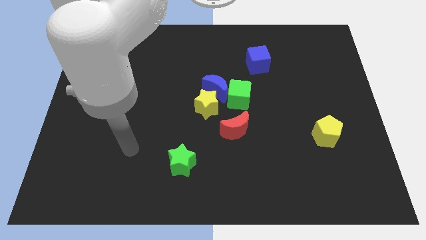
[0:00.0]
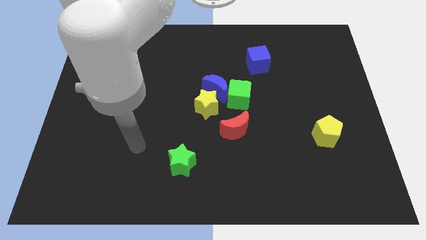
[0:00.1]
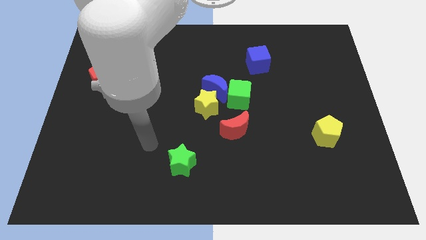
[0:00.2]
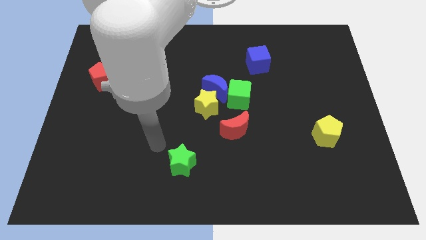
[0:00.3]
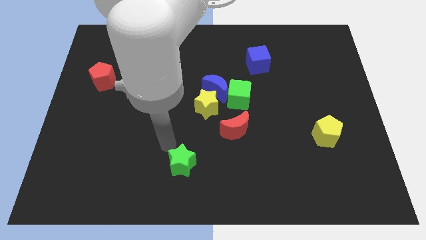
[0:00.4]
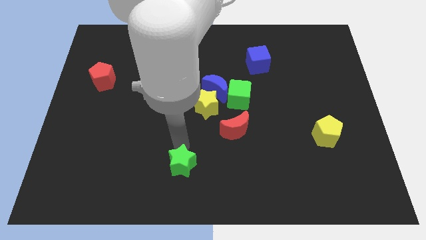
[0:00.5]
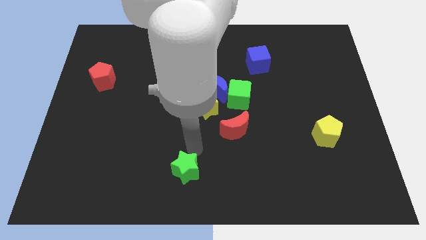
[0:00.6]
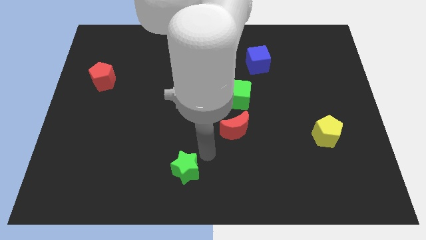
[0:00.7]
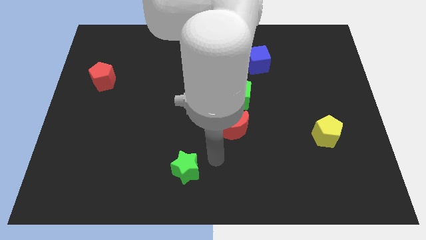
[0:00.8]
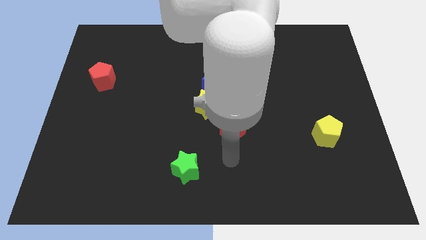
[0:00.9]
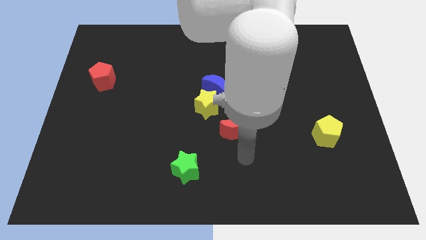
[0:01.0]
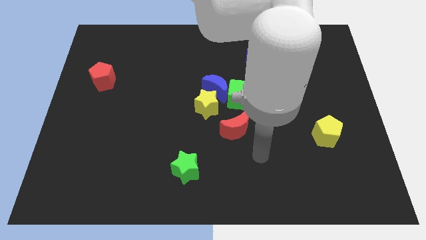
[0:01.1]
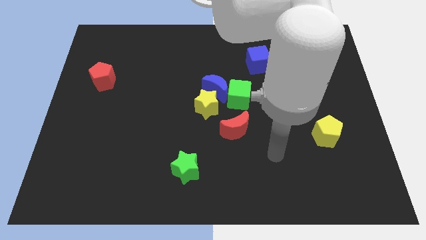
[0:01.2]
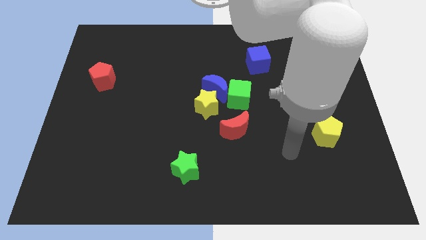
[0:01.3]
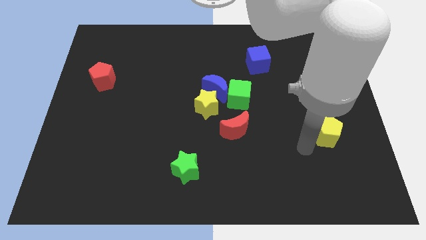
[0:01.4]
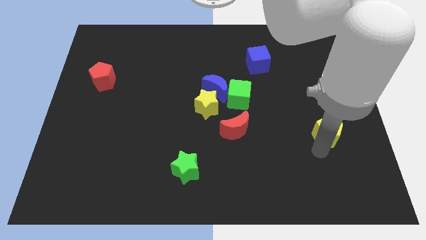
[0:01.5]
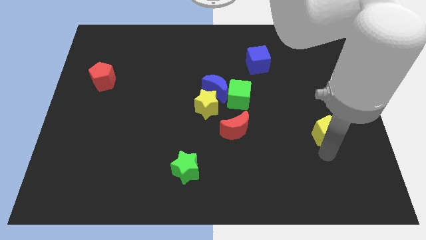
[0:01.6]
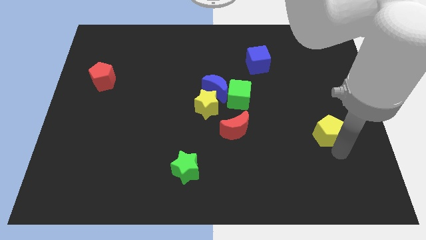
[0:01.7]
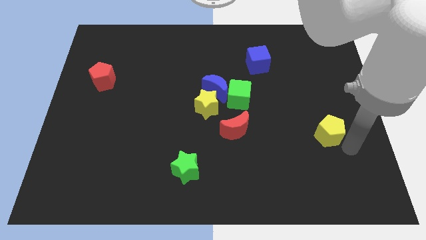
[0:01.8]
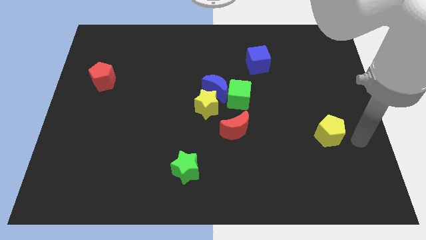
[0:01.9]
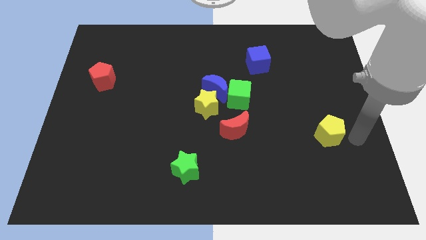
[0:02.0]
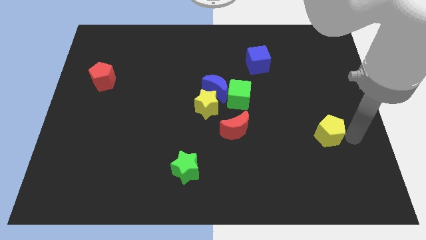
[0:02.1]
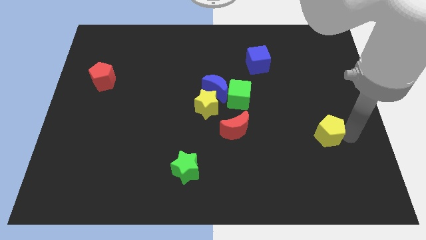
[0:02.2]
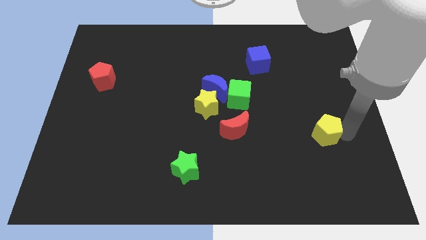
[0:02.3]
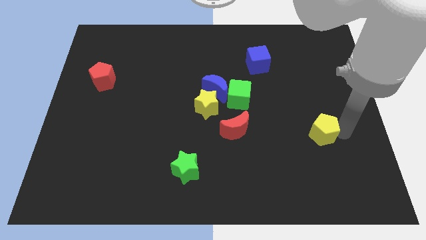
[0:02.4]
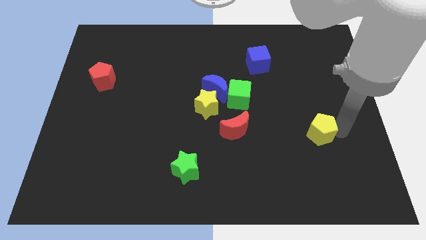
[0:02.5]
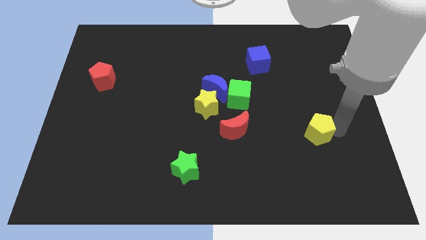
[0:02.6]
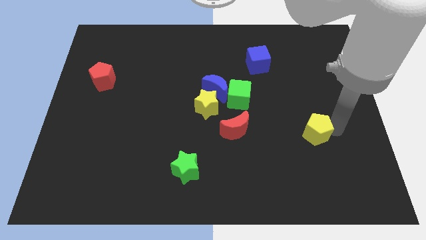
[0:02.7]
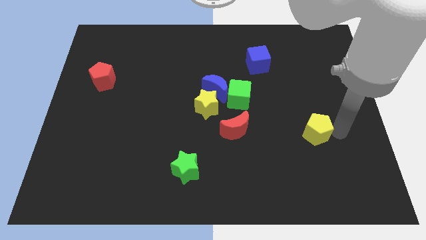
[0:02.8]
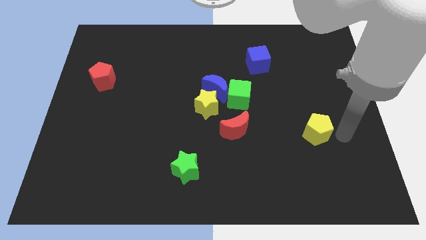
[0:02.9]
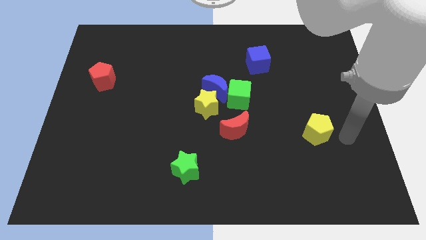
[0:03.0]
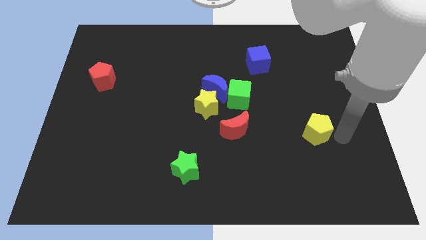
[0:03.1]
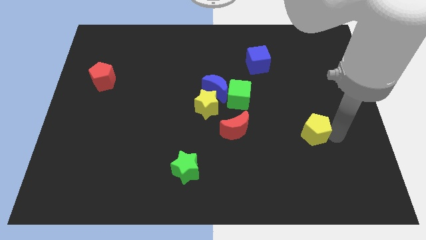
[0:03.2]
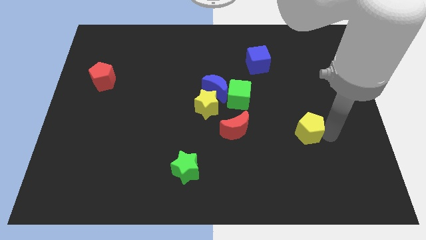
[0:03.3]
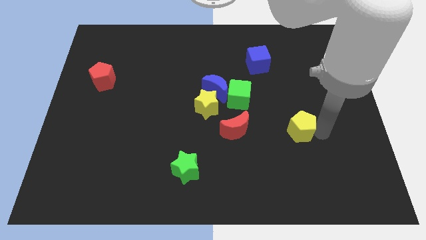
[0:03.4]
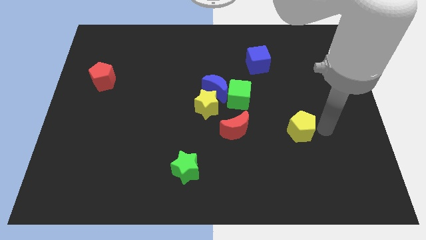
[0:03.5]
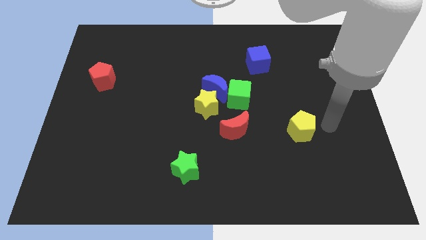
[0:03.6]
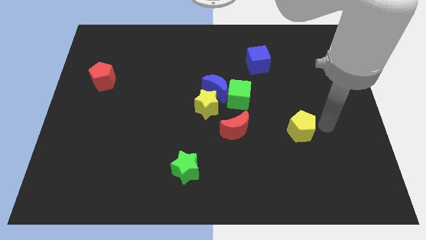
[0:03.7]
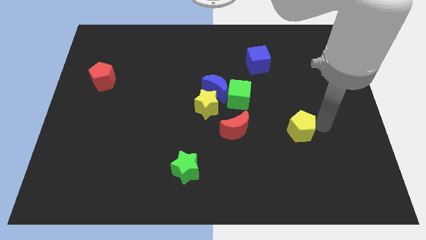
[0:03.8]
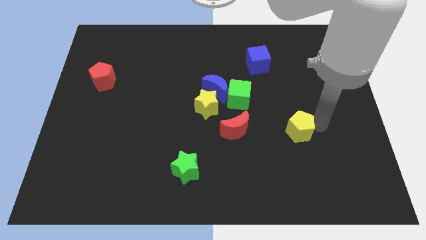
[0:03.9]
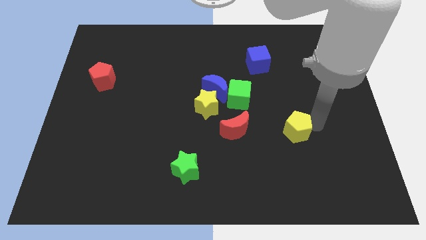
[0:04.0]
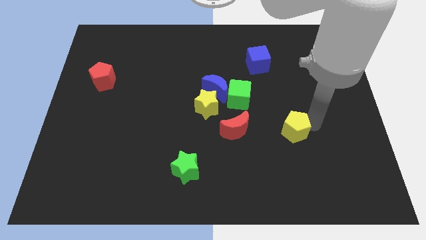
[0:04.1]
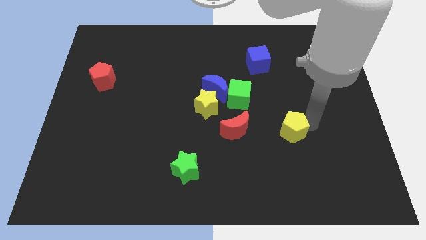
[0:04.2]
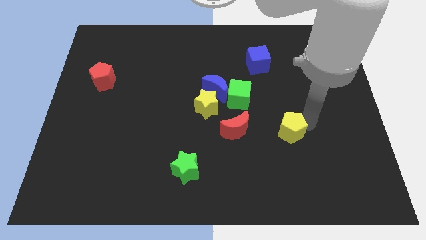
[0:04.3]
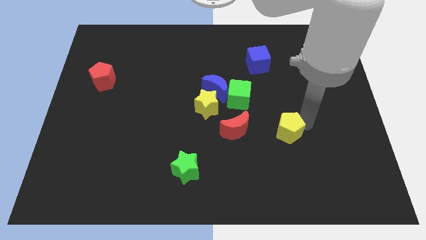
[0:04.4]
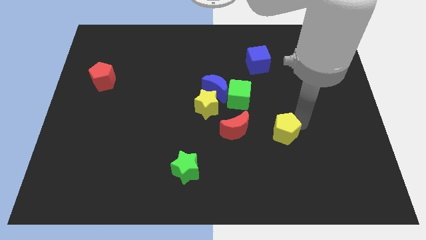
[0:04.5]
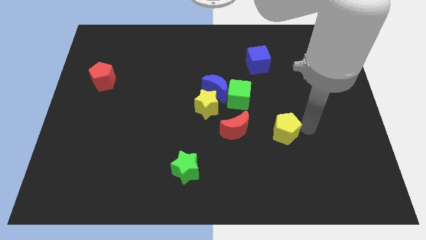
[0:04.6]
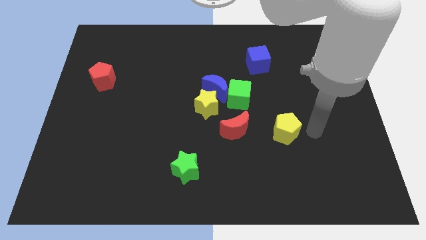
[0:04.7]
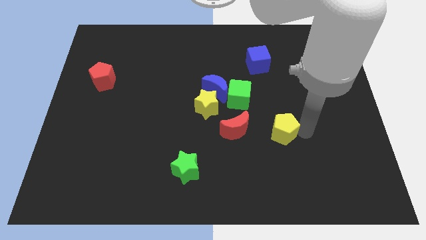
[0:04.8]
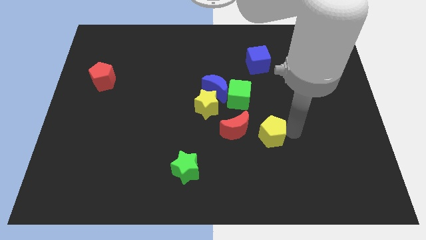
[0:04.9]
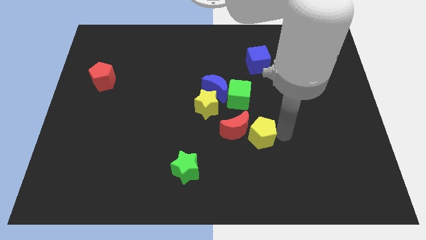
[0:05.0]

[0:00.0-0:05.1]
push the yellow pentagon towards the red moon

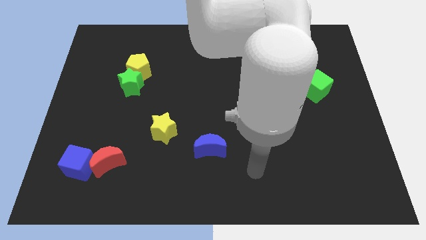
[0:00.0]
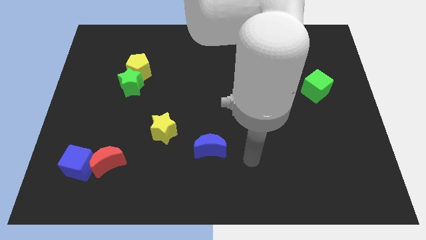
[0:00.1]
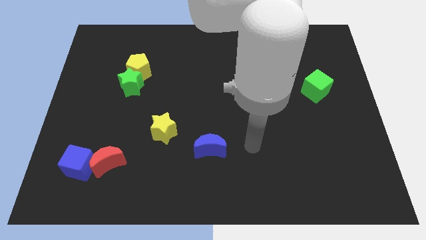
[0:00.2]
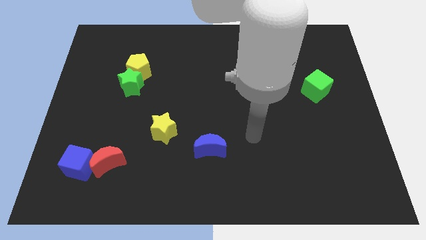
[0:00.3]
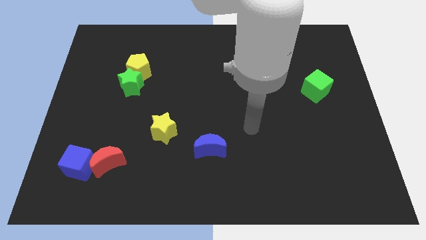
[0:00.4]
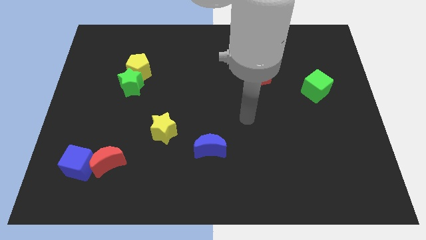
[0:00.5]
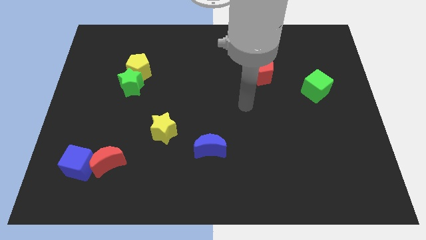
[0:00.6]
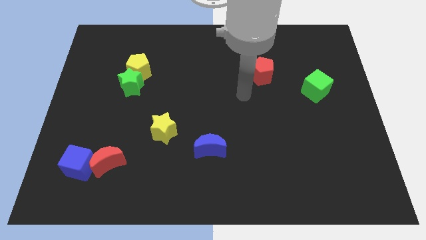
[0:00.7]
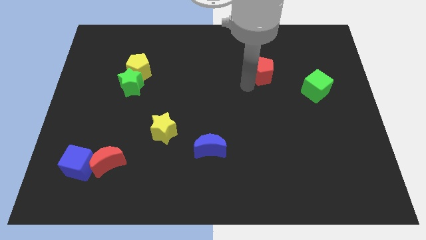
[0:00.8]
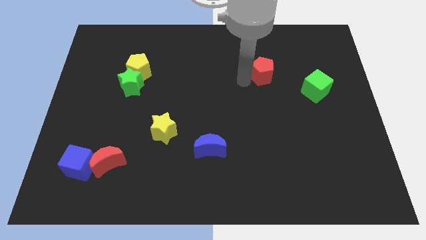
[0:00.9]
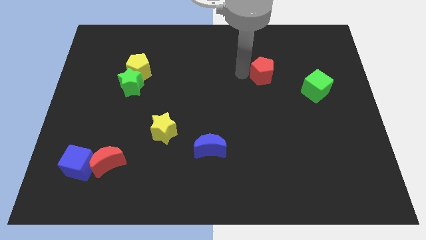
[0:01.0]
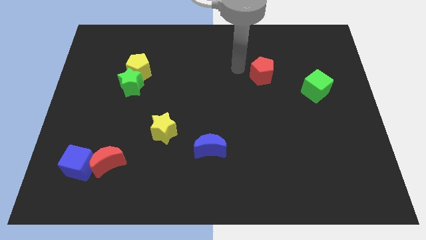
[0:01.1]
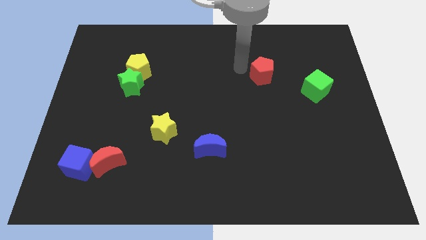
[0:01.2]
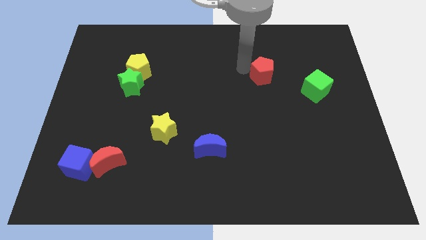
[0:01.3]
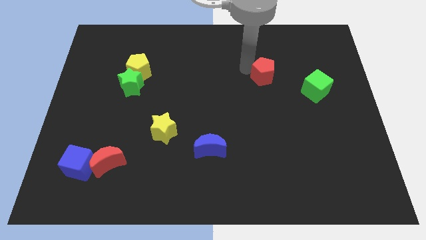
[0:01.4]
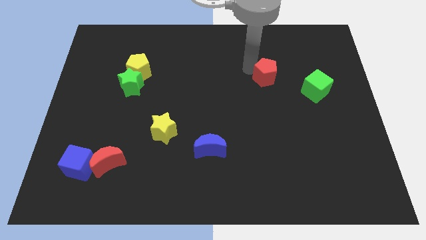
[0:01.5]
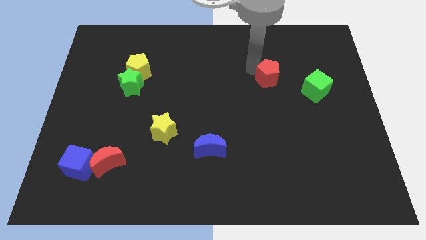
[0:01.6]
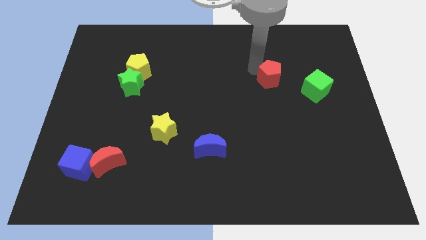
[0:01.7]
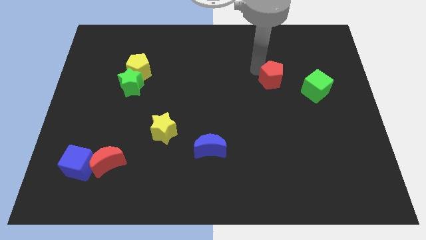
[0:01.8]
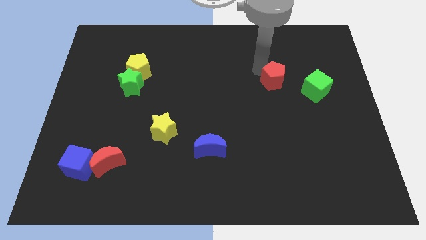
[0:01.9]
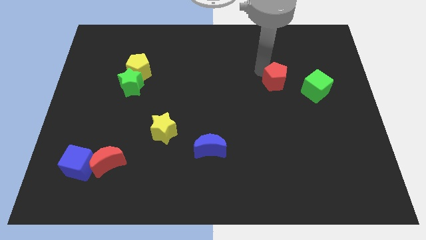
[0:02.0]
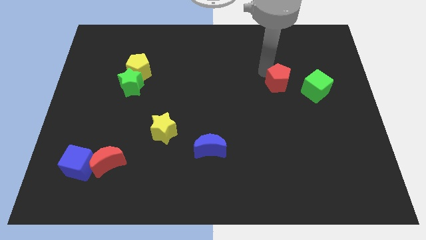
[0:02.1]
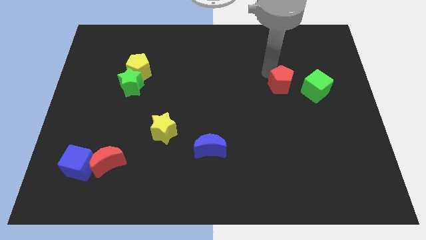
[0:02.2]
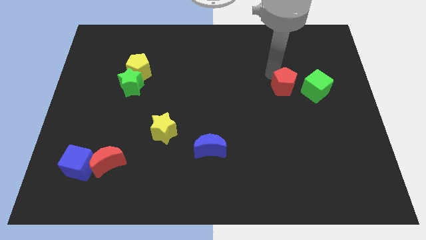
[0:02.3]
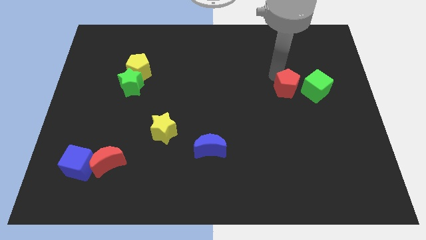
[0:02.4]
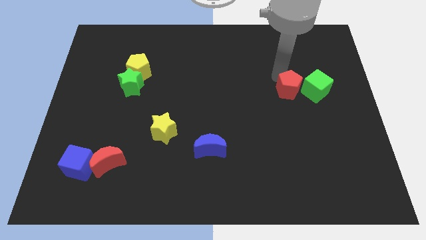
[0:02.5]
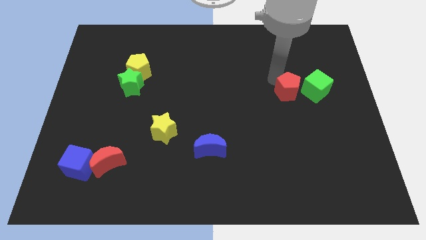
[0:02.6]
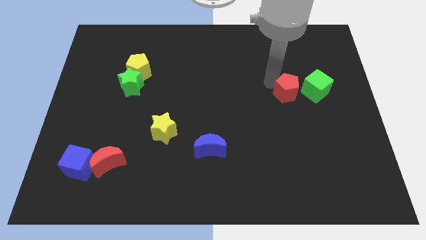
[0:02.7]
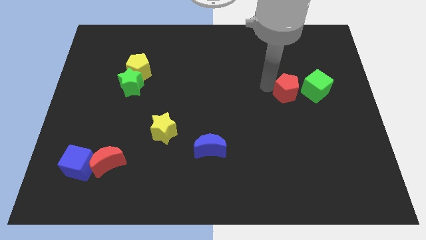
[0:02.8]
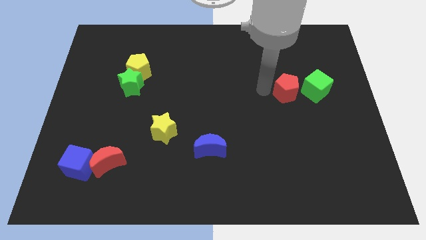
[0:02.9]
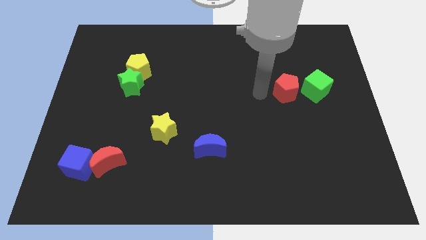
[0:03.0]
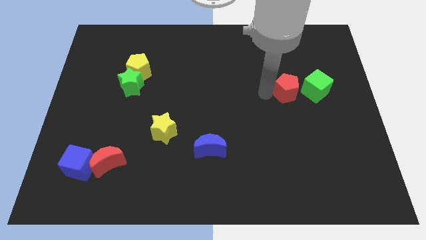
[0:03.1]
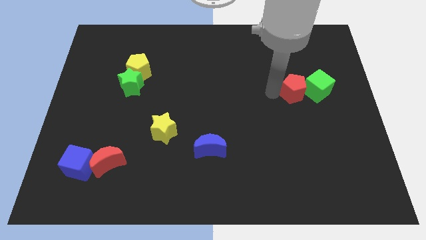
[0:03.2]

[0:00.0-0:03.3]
slide the red pentagon next to the green cube
